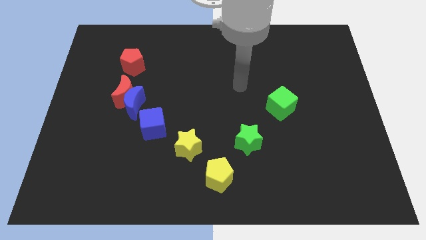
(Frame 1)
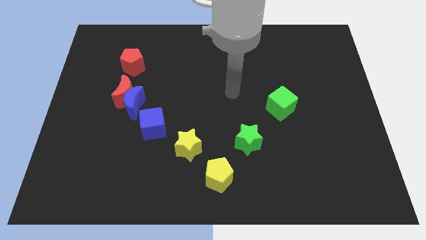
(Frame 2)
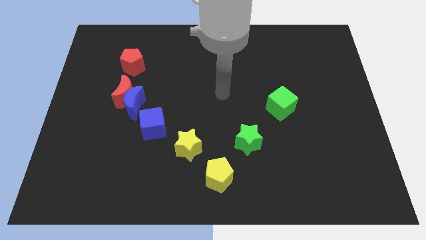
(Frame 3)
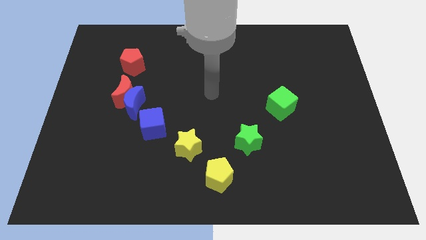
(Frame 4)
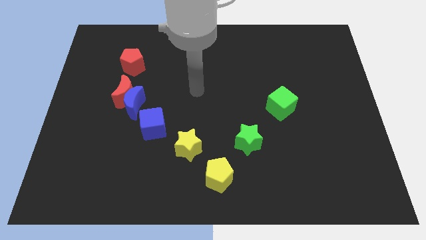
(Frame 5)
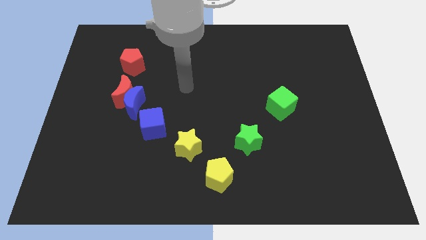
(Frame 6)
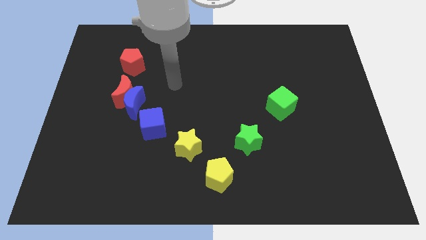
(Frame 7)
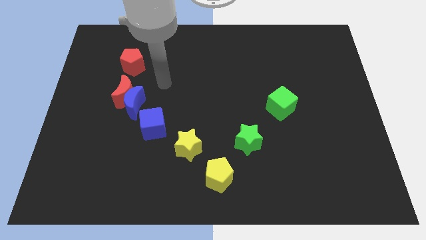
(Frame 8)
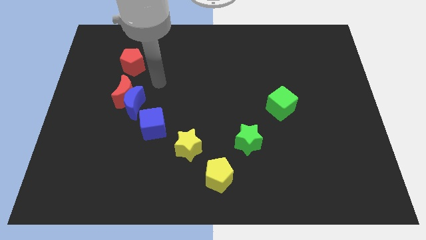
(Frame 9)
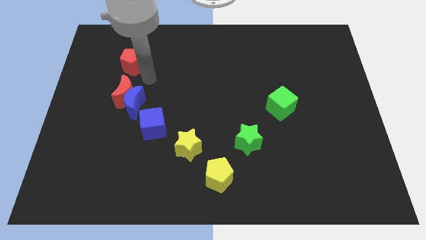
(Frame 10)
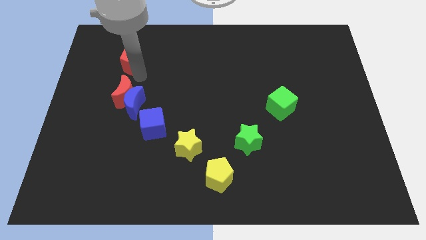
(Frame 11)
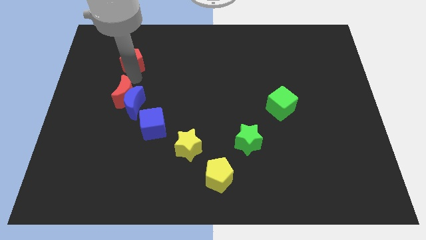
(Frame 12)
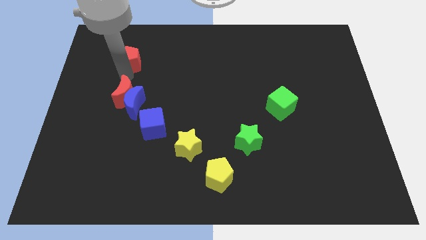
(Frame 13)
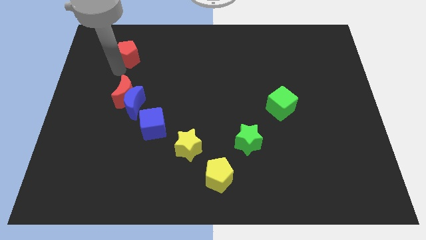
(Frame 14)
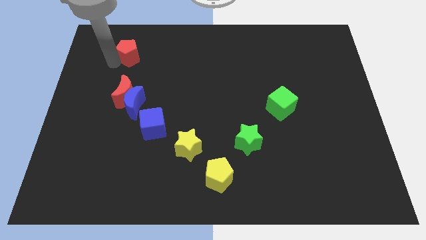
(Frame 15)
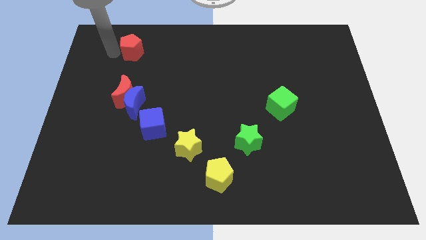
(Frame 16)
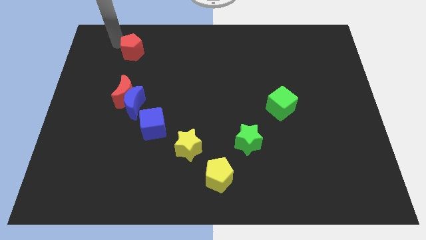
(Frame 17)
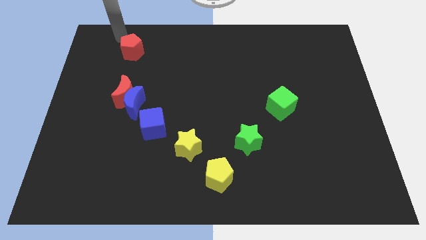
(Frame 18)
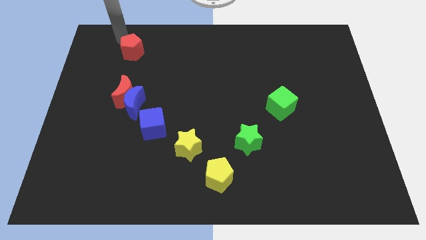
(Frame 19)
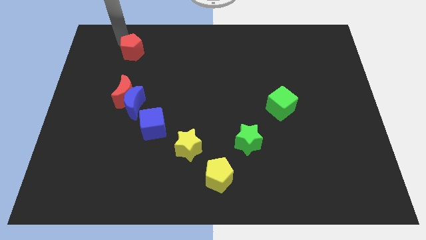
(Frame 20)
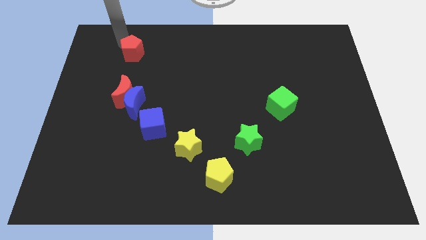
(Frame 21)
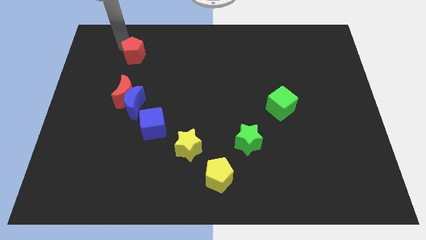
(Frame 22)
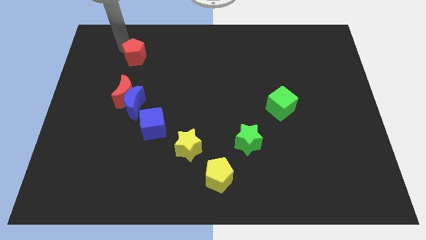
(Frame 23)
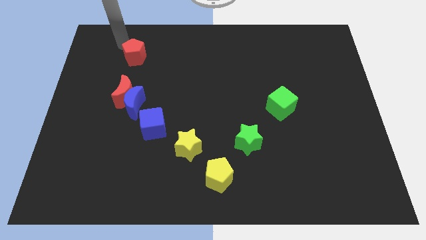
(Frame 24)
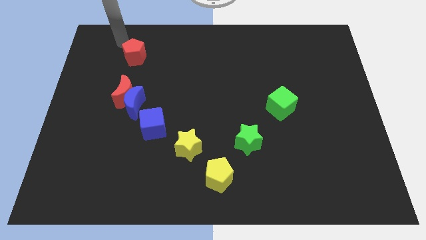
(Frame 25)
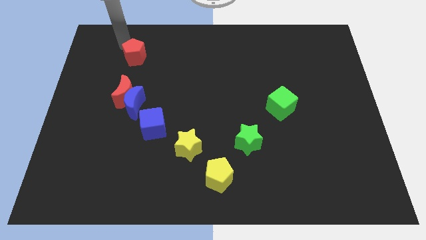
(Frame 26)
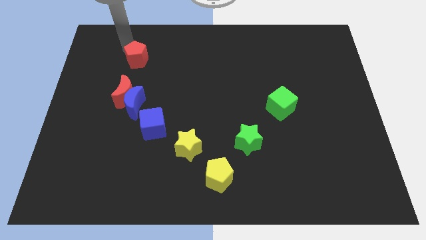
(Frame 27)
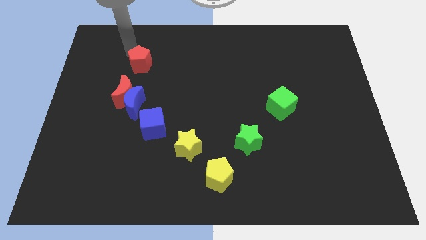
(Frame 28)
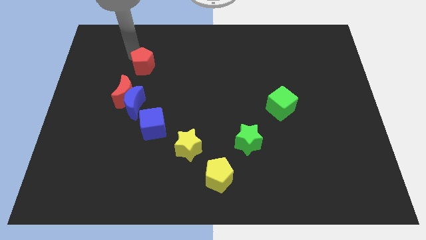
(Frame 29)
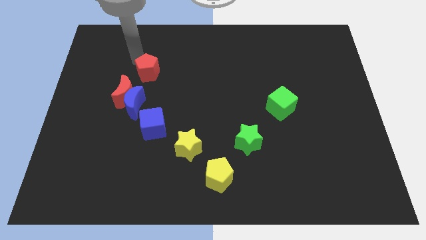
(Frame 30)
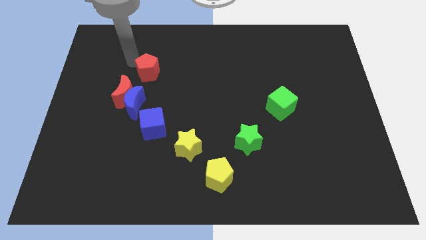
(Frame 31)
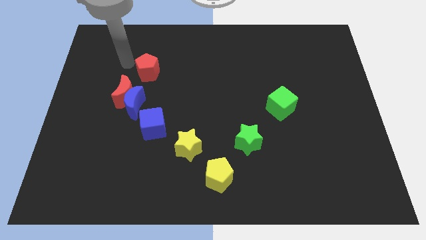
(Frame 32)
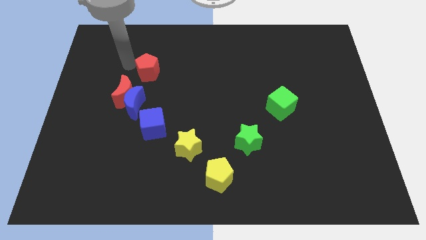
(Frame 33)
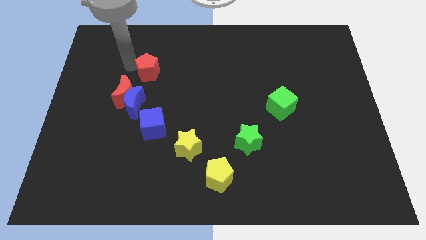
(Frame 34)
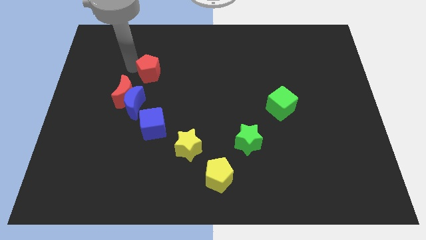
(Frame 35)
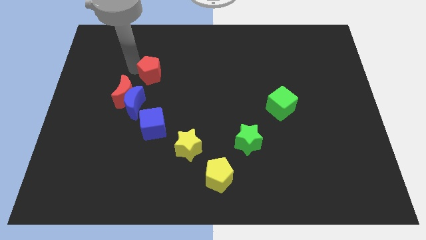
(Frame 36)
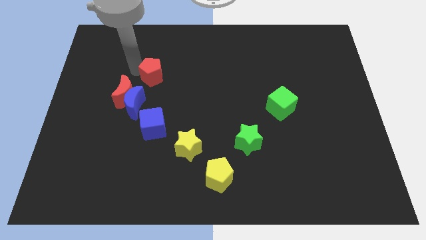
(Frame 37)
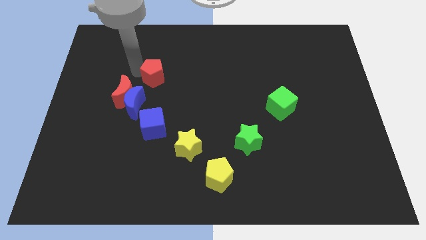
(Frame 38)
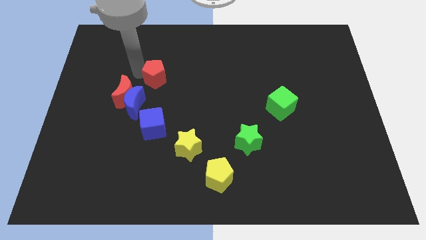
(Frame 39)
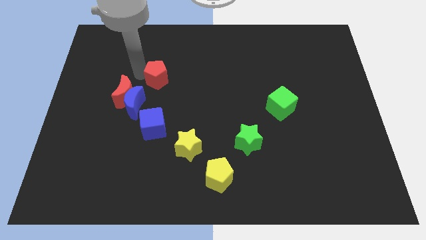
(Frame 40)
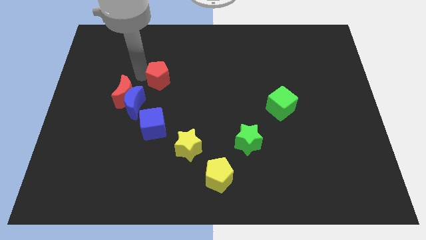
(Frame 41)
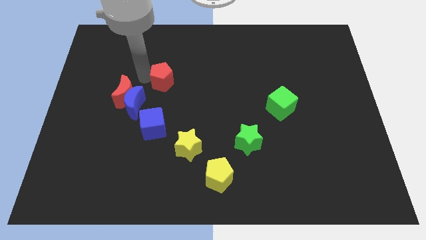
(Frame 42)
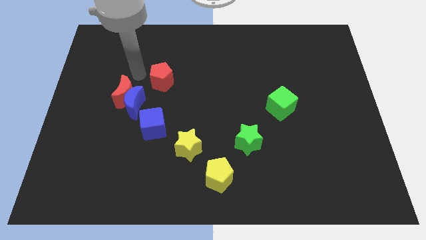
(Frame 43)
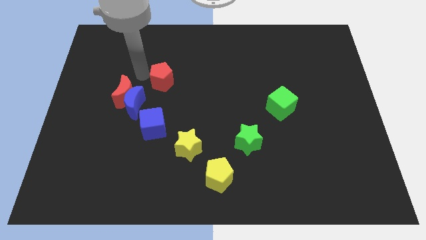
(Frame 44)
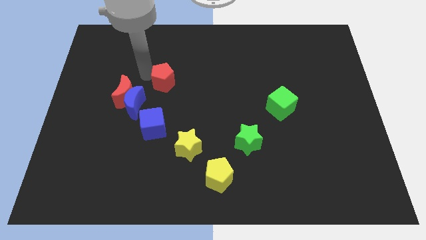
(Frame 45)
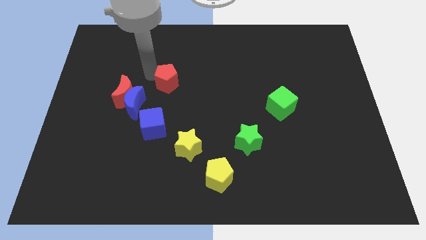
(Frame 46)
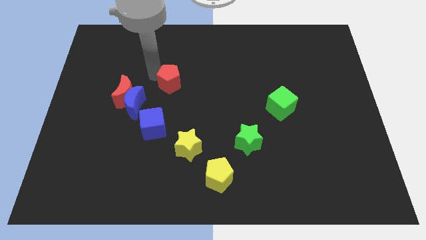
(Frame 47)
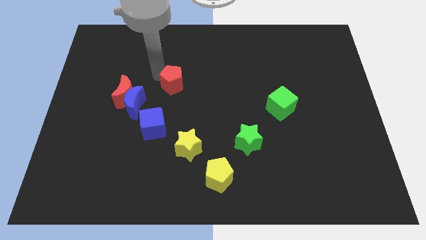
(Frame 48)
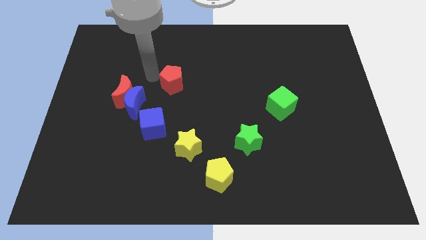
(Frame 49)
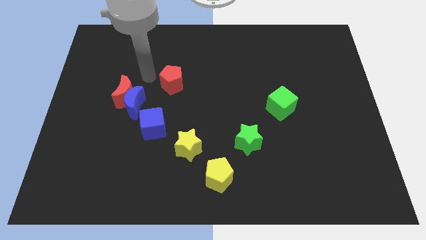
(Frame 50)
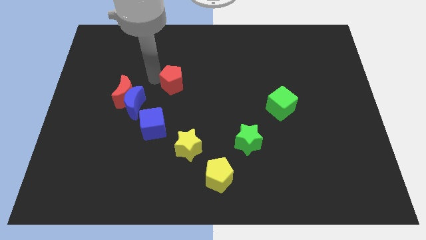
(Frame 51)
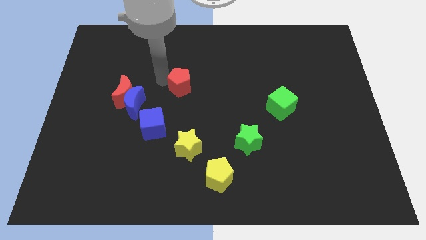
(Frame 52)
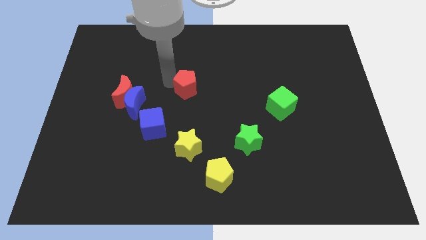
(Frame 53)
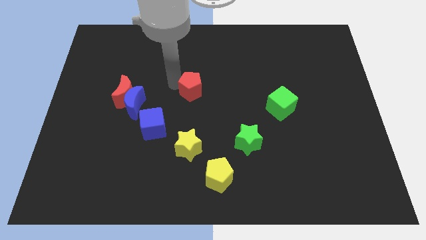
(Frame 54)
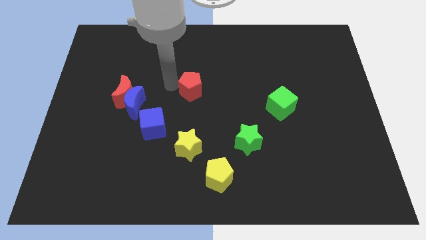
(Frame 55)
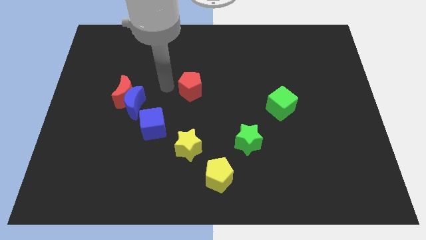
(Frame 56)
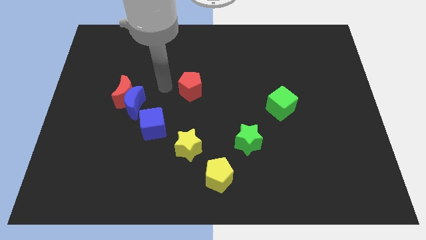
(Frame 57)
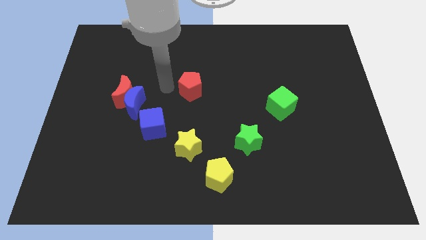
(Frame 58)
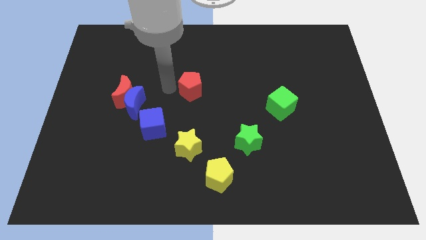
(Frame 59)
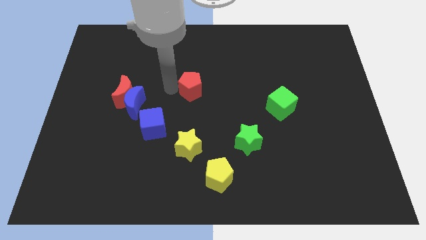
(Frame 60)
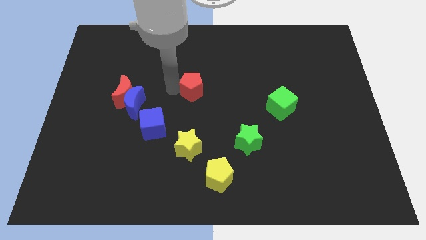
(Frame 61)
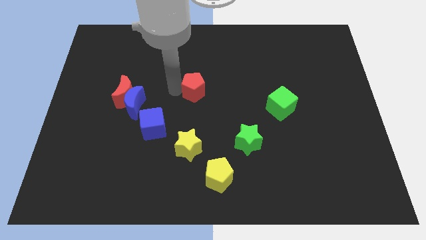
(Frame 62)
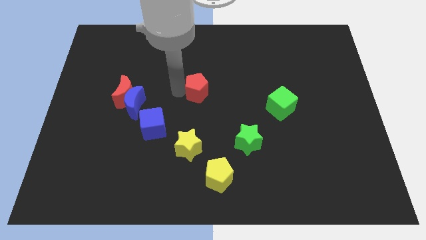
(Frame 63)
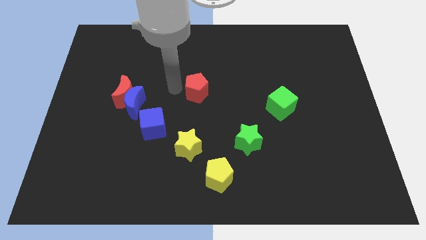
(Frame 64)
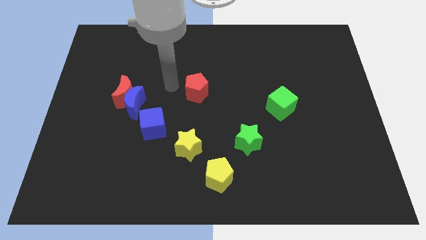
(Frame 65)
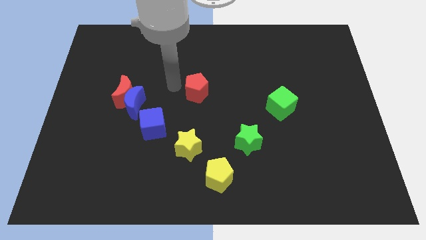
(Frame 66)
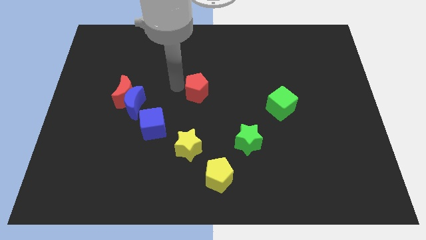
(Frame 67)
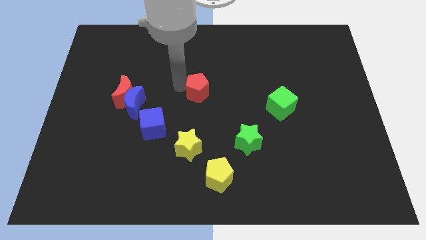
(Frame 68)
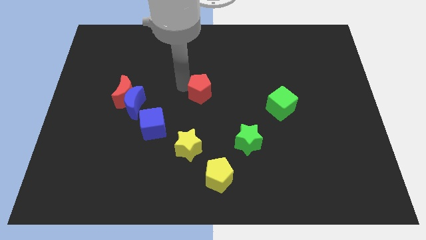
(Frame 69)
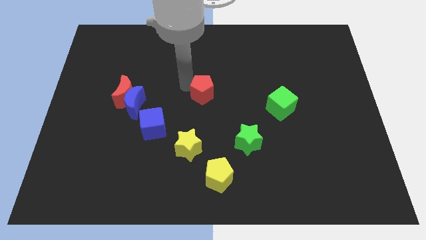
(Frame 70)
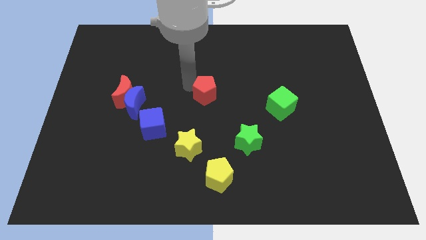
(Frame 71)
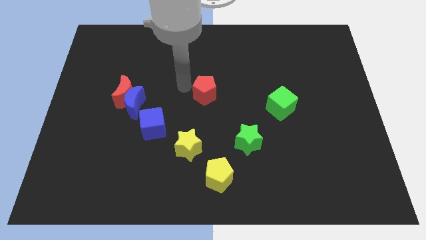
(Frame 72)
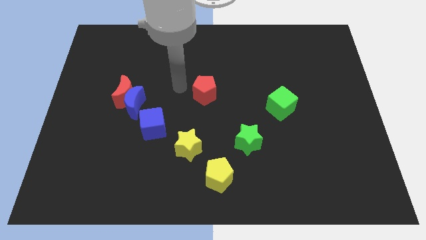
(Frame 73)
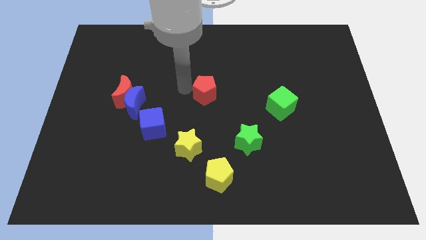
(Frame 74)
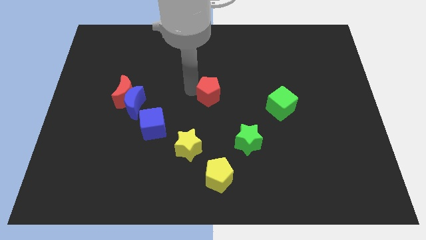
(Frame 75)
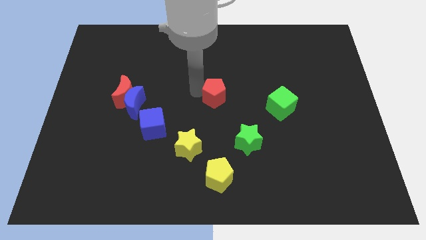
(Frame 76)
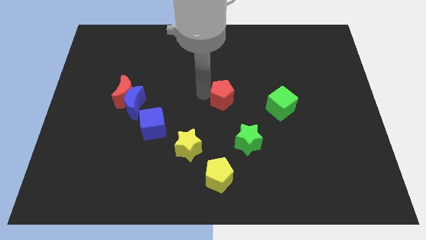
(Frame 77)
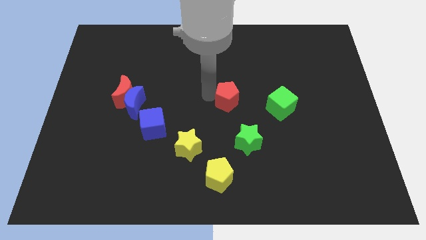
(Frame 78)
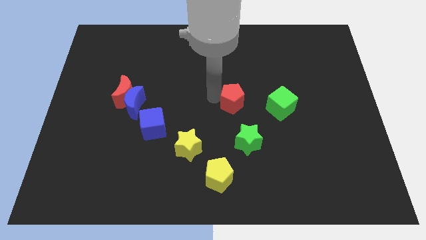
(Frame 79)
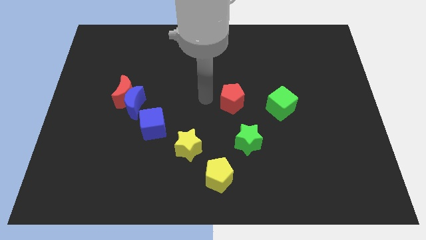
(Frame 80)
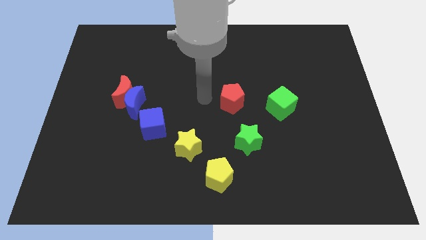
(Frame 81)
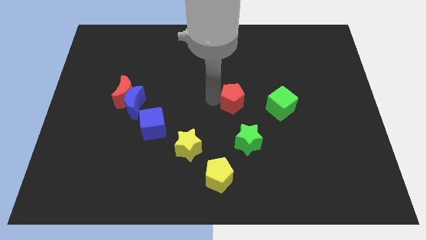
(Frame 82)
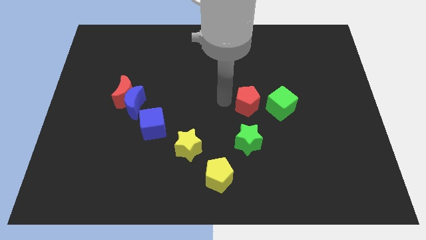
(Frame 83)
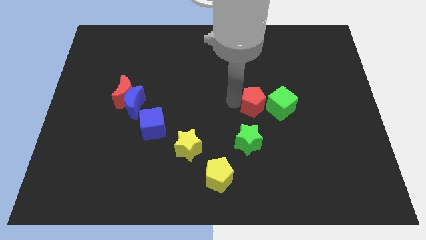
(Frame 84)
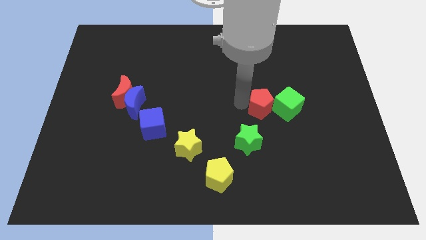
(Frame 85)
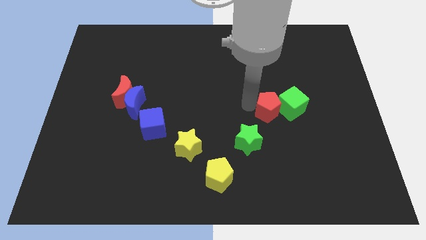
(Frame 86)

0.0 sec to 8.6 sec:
slide the red pentagon close to the green cube
